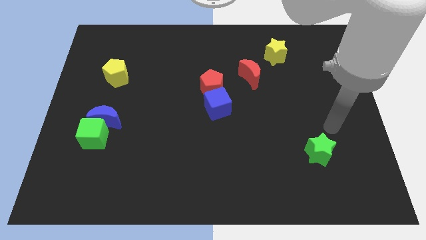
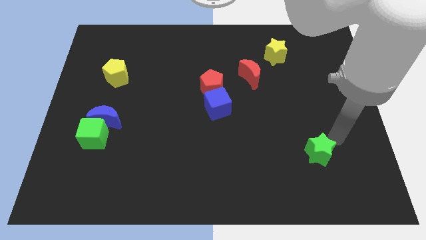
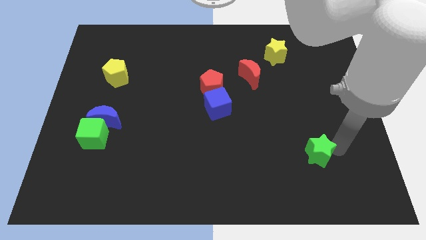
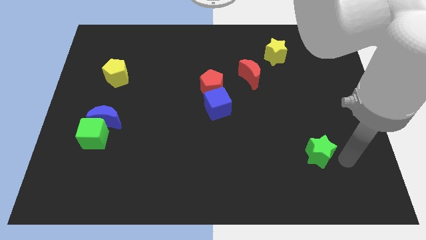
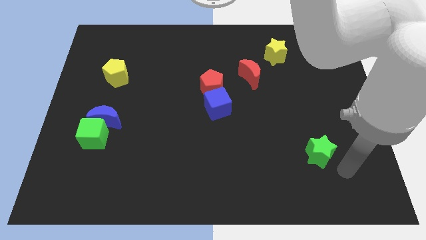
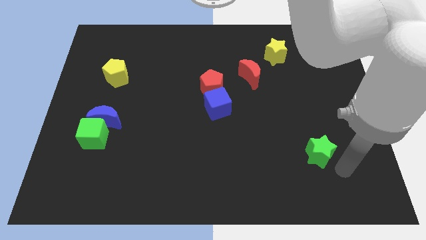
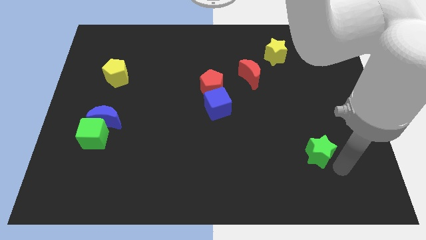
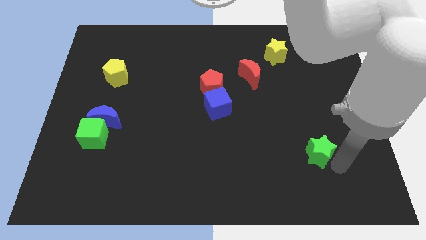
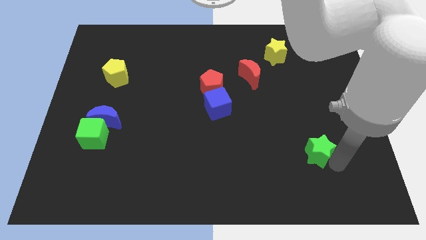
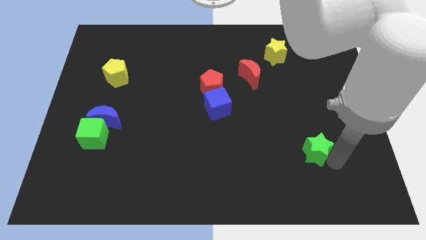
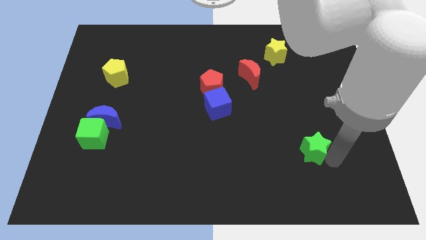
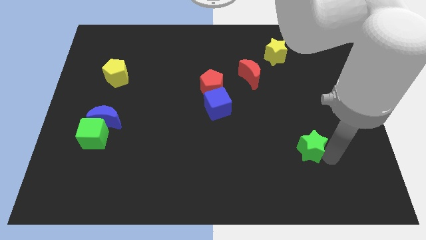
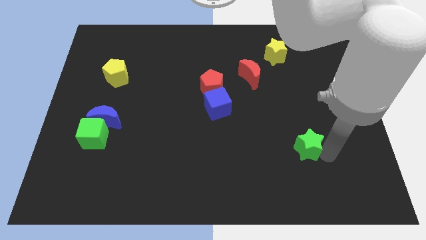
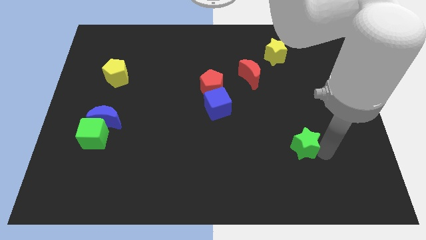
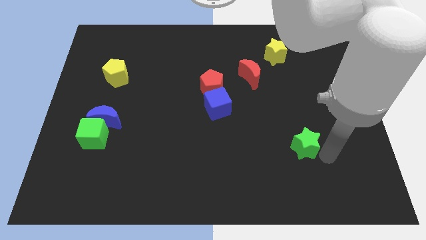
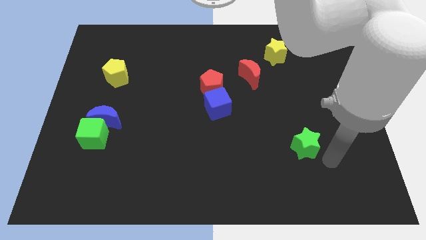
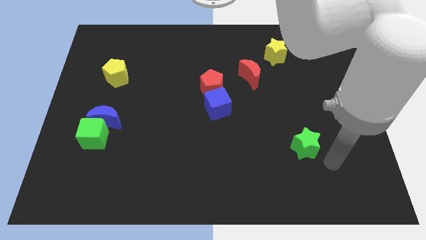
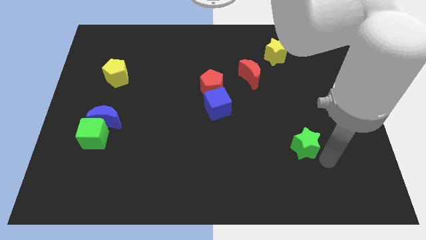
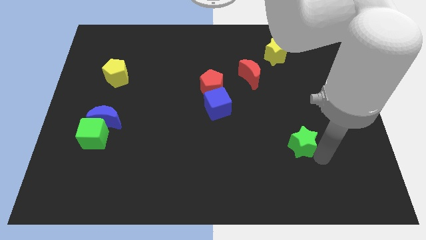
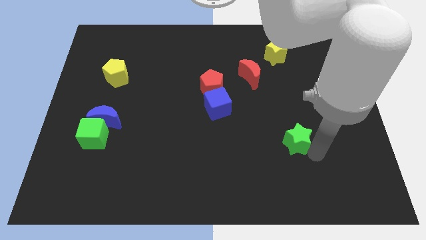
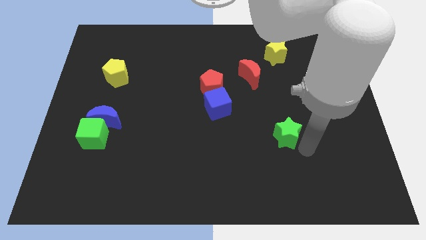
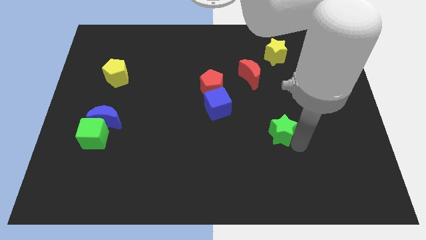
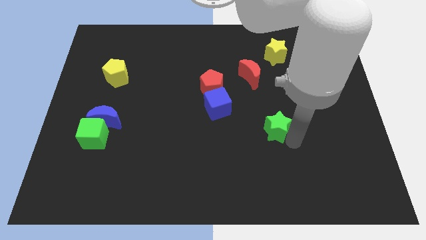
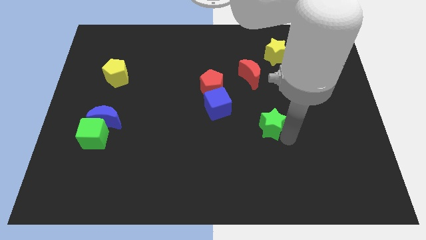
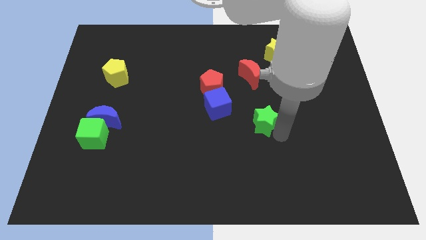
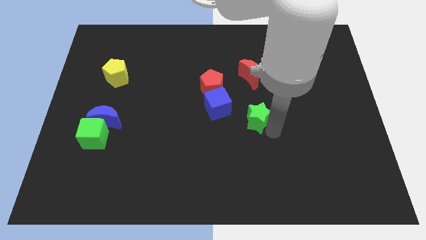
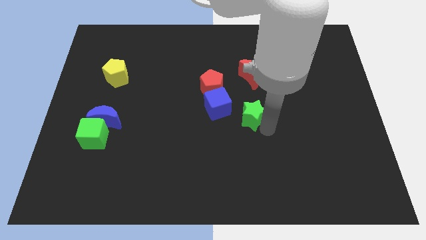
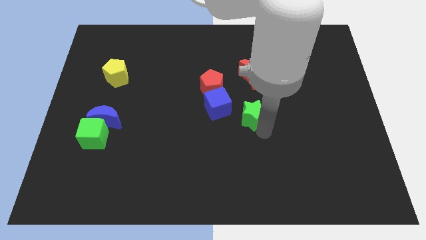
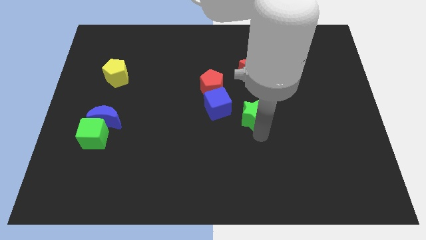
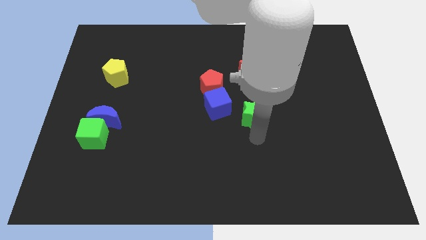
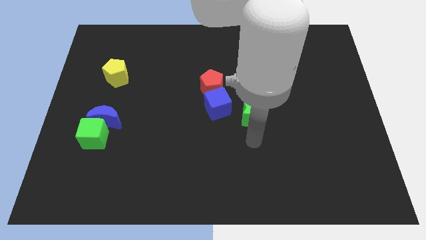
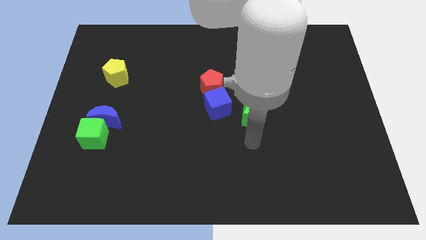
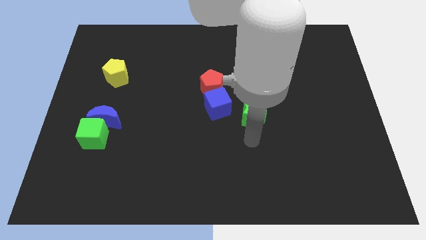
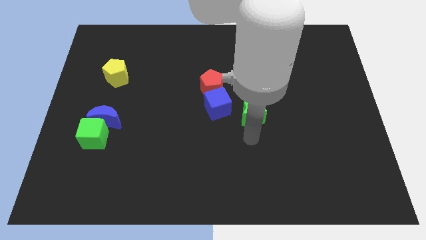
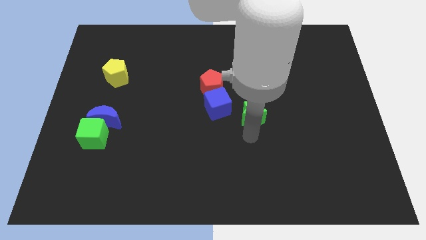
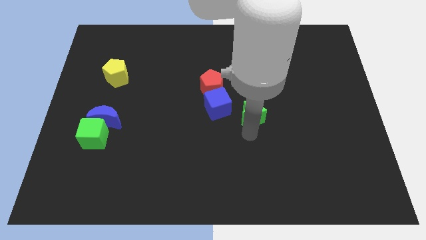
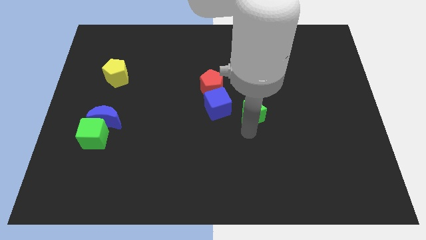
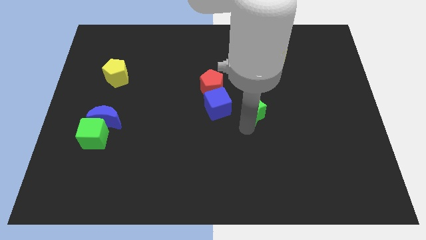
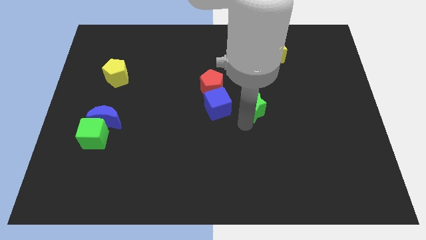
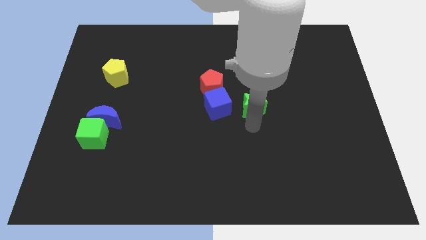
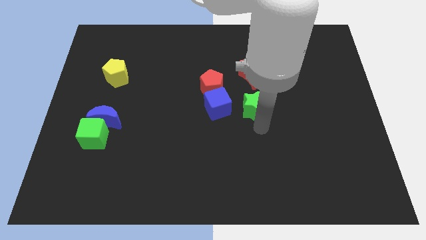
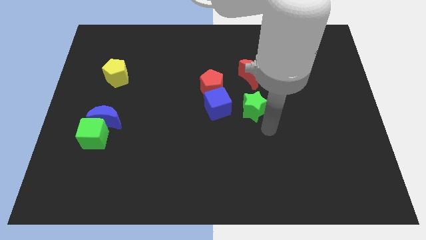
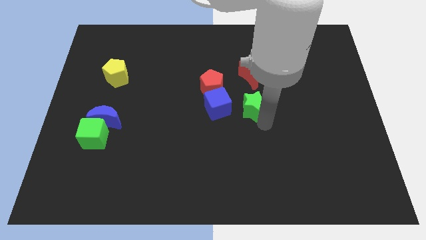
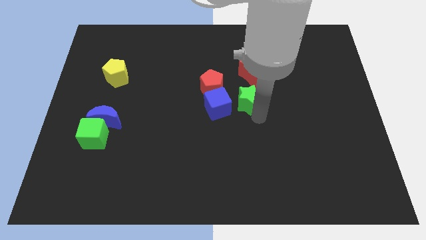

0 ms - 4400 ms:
move the green star up and to the left diagonally

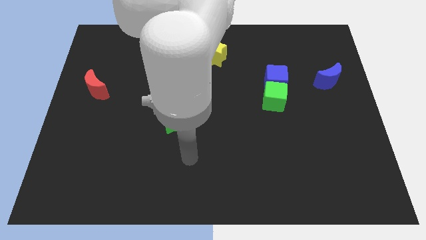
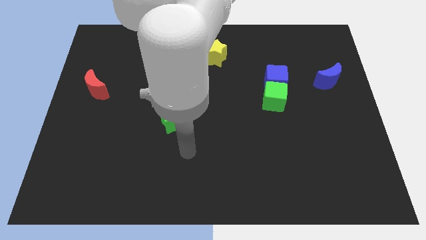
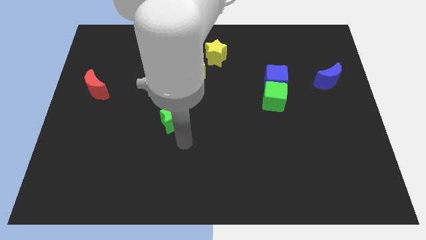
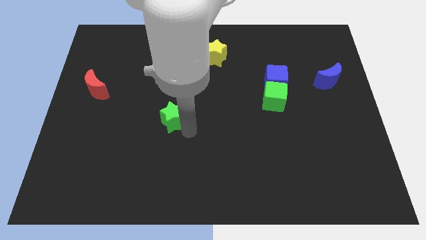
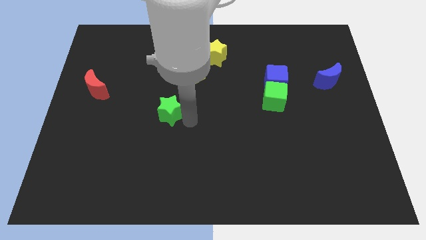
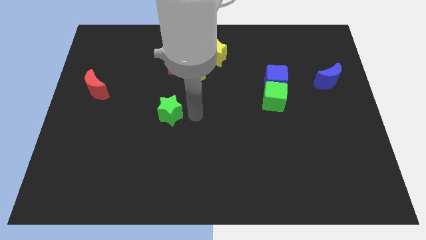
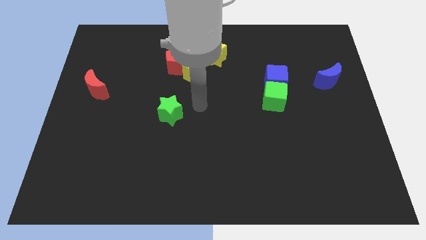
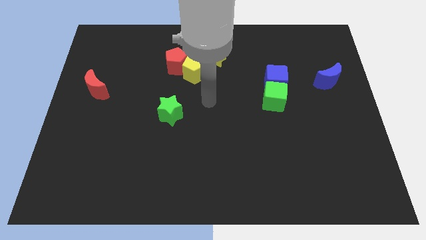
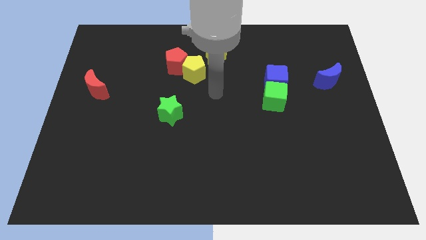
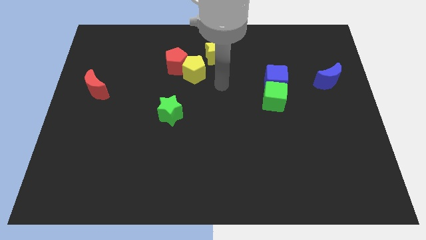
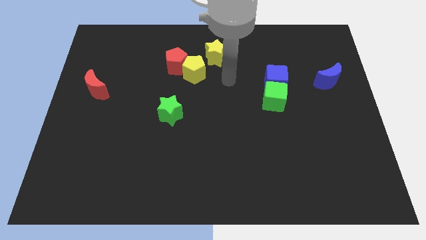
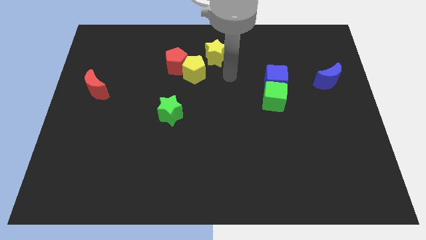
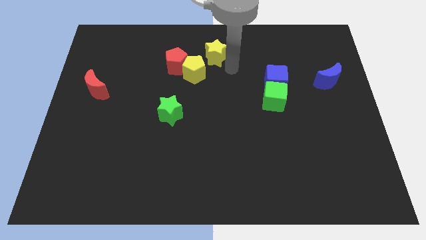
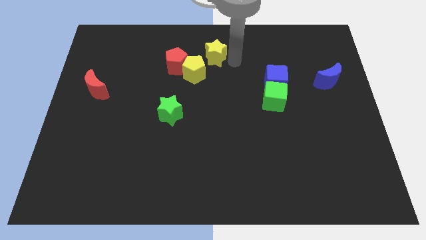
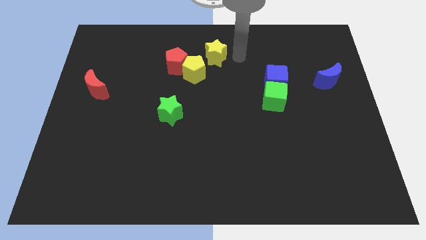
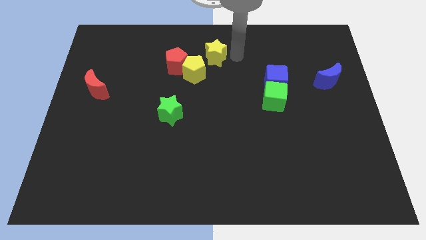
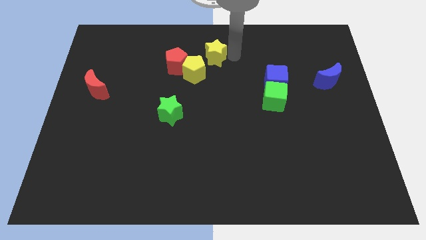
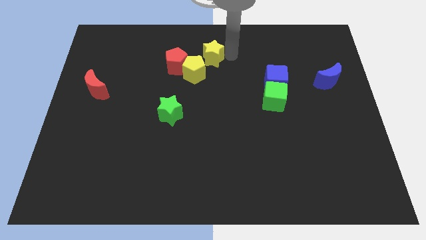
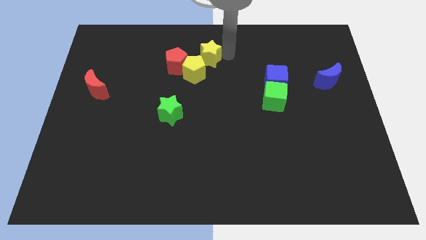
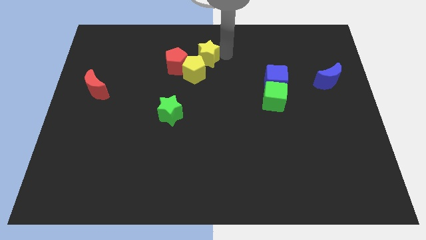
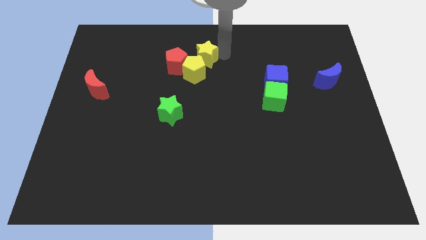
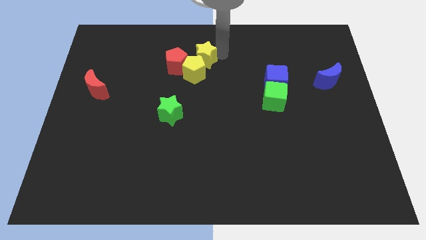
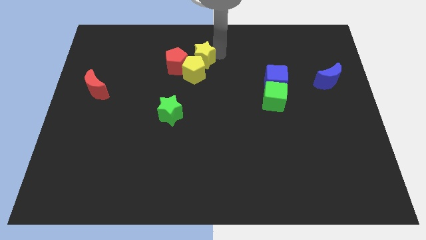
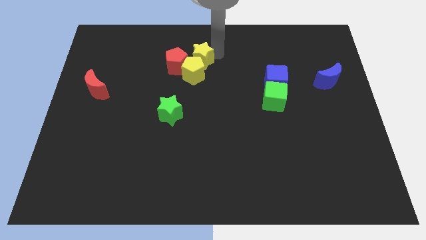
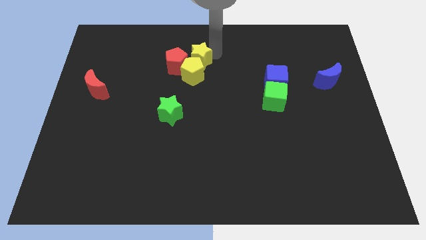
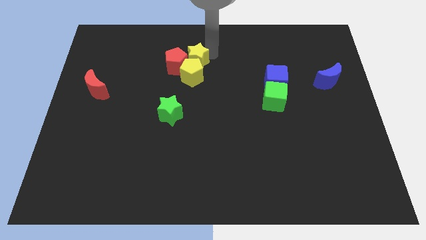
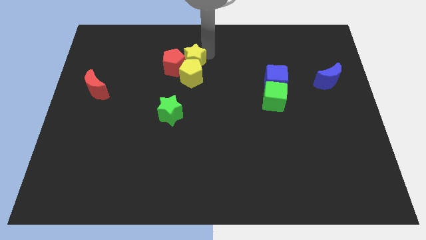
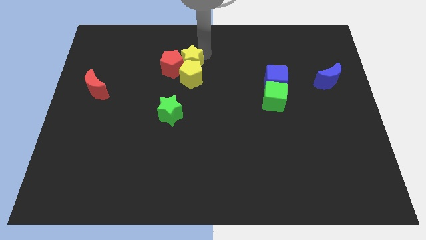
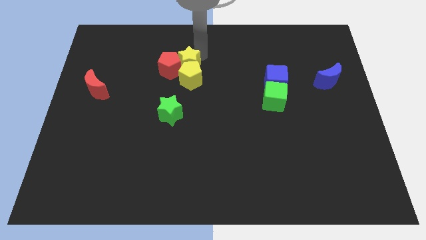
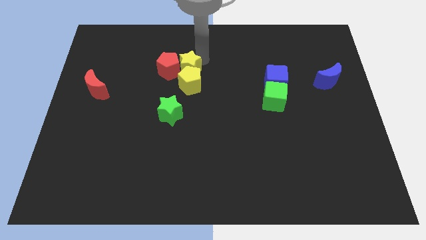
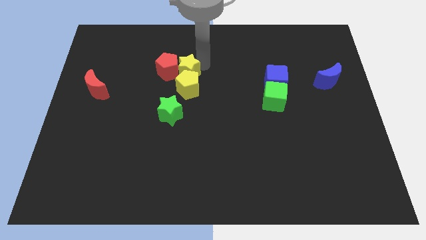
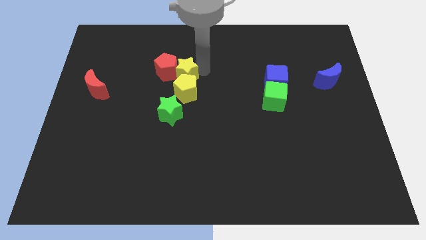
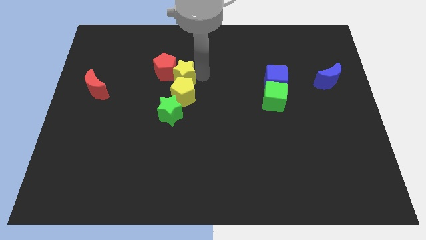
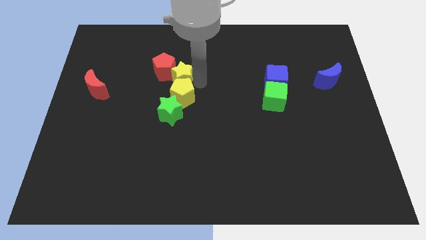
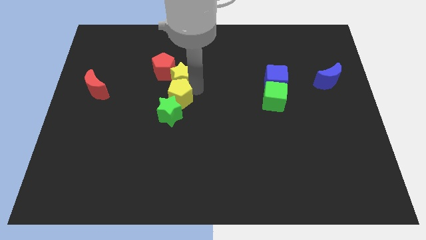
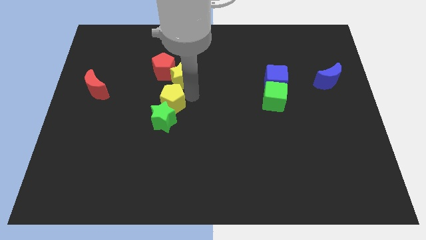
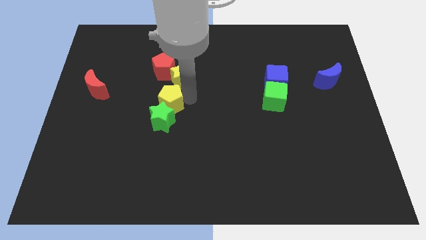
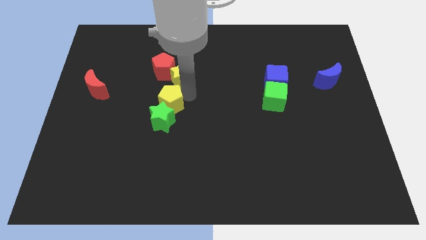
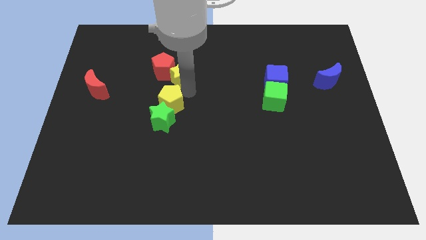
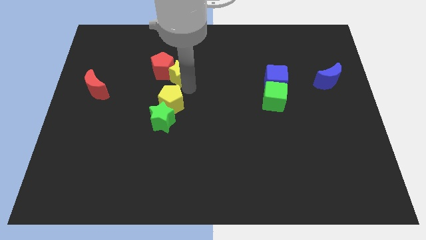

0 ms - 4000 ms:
push the yellow star to the left somewhat
